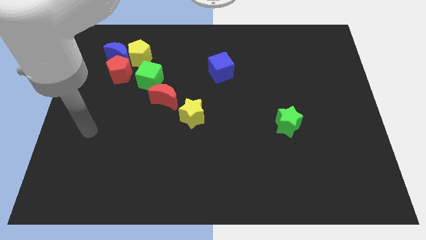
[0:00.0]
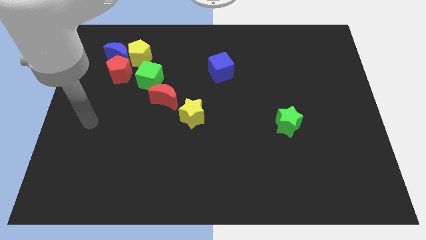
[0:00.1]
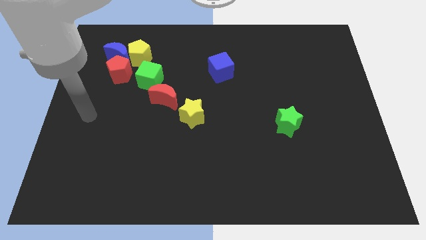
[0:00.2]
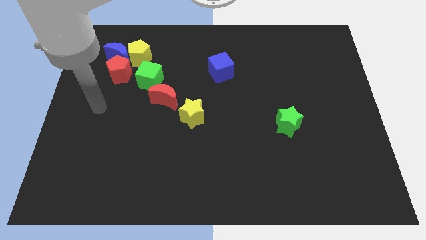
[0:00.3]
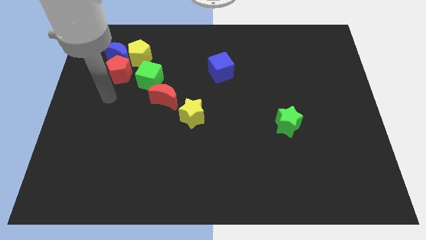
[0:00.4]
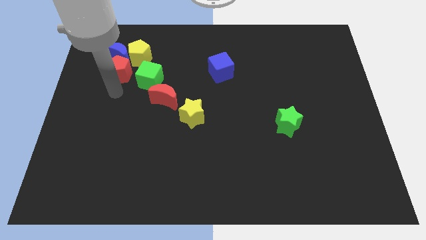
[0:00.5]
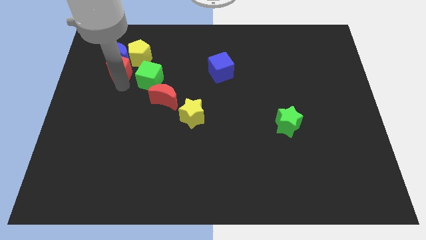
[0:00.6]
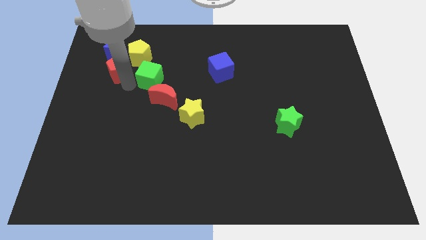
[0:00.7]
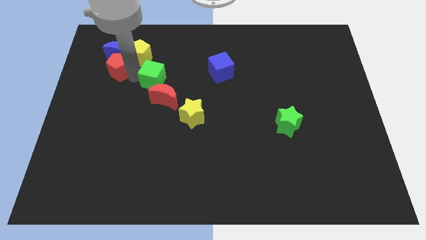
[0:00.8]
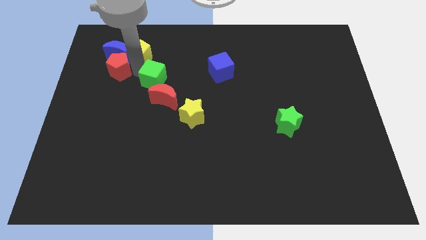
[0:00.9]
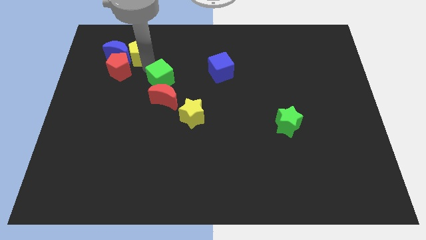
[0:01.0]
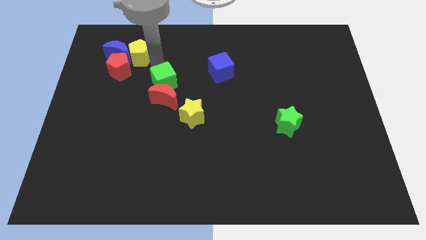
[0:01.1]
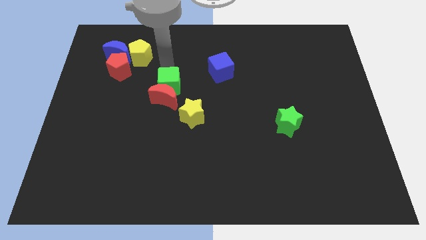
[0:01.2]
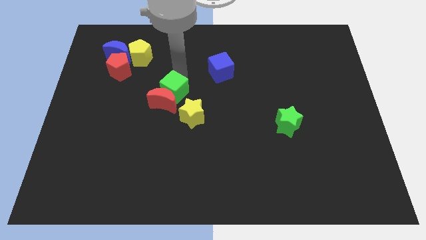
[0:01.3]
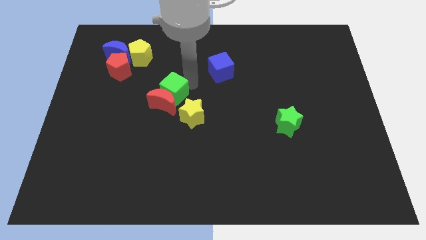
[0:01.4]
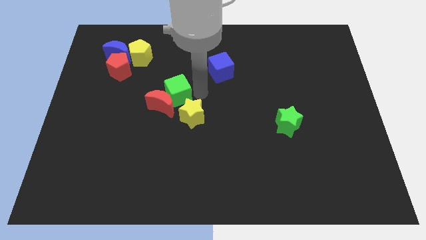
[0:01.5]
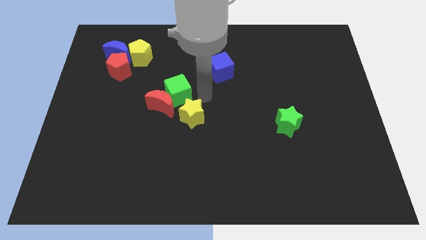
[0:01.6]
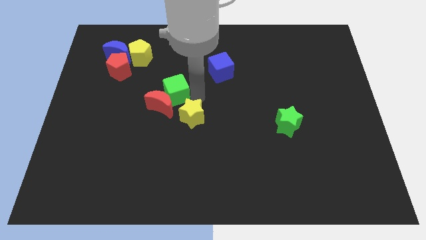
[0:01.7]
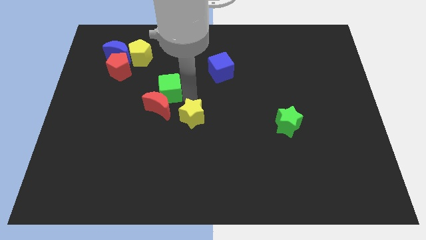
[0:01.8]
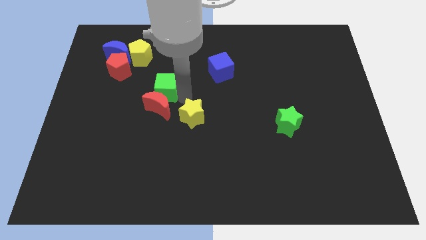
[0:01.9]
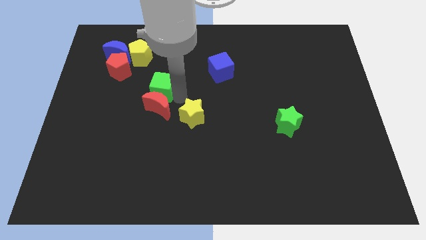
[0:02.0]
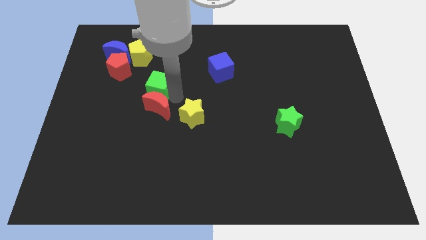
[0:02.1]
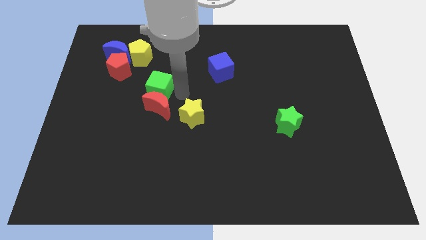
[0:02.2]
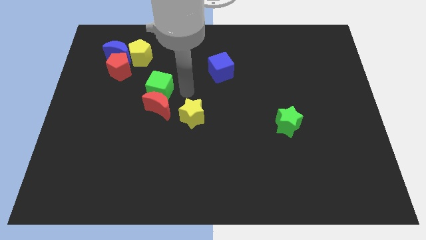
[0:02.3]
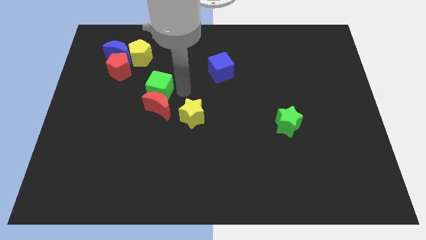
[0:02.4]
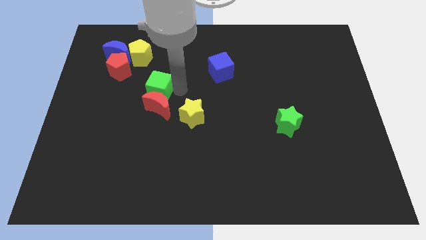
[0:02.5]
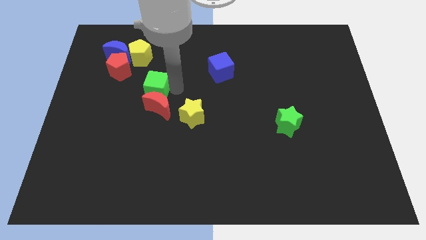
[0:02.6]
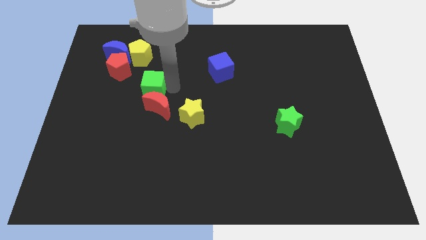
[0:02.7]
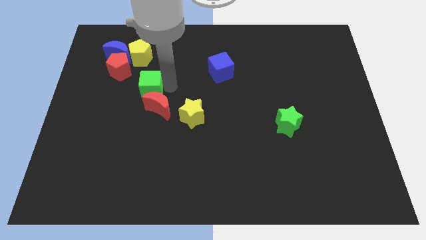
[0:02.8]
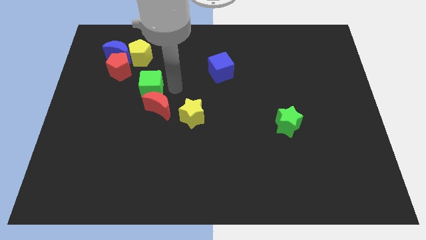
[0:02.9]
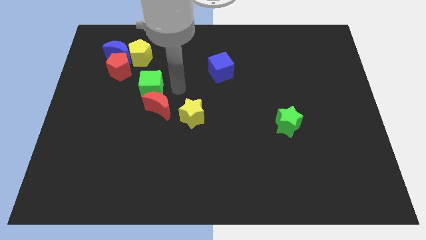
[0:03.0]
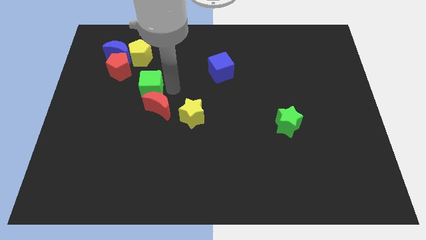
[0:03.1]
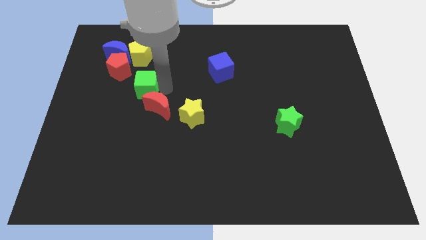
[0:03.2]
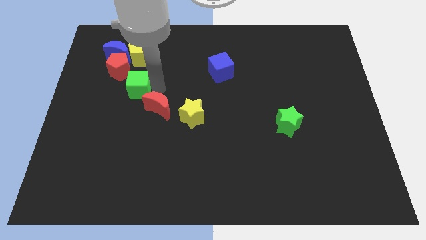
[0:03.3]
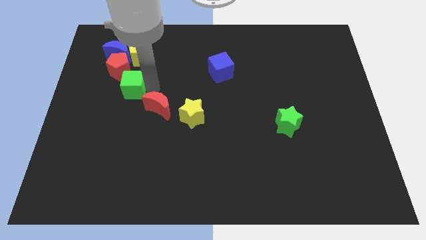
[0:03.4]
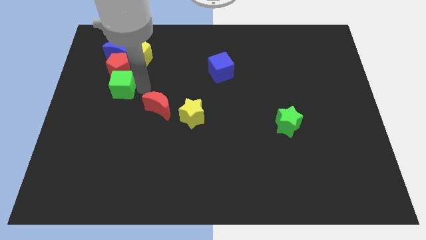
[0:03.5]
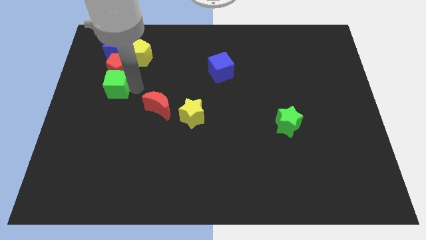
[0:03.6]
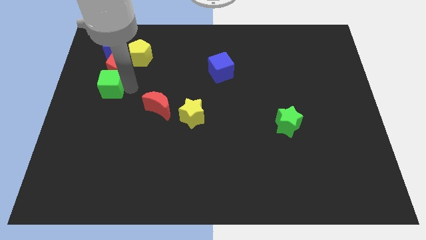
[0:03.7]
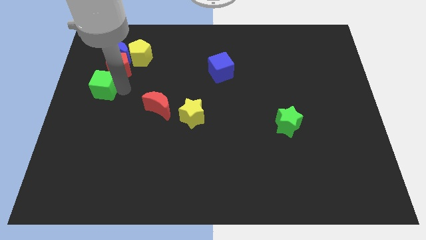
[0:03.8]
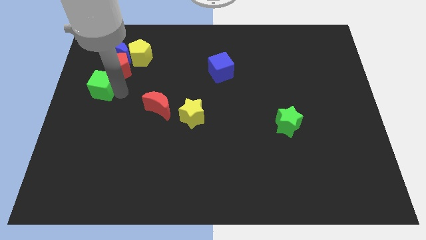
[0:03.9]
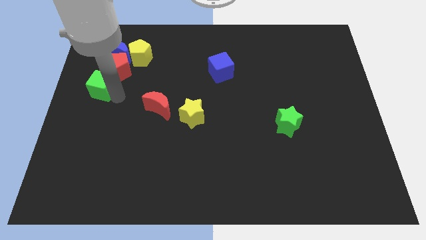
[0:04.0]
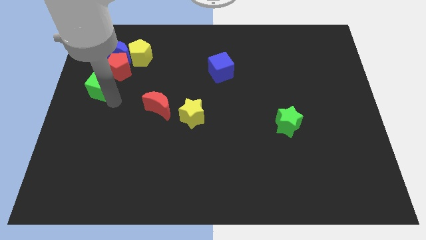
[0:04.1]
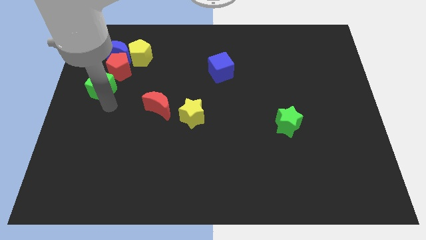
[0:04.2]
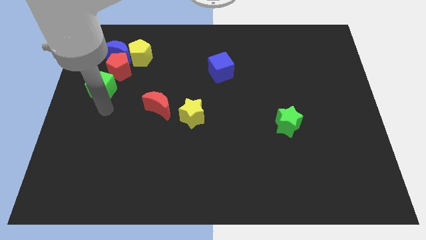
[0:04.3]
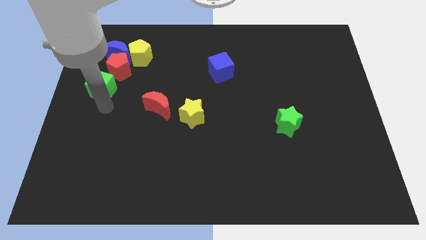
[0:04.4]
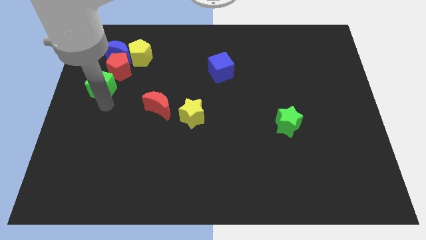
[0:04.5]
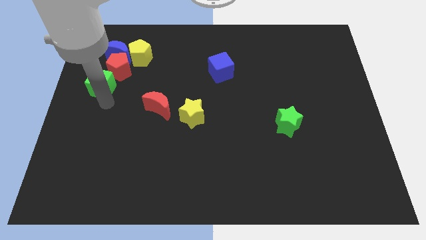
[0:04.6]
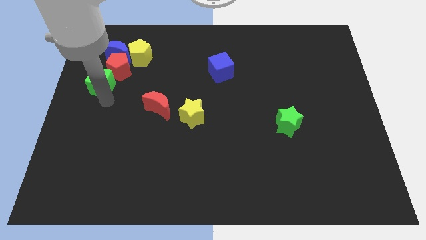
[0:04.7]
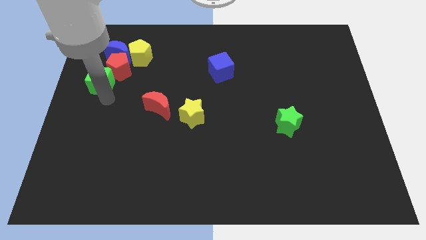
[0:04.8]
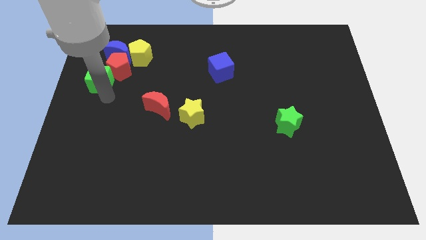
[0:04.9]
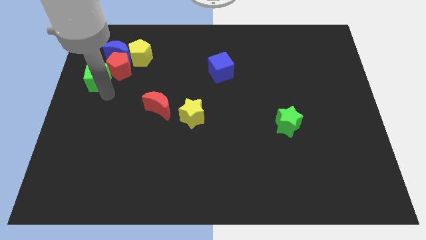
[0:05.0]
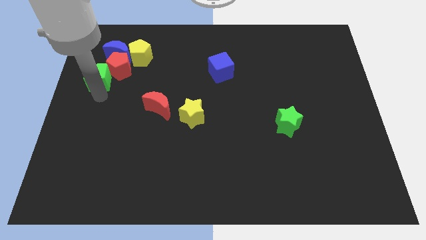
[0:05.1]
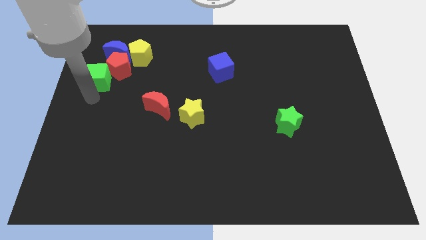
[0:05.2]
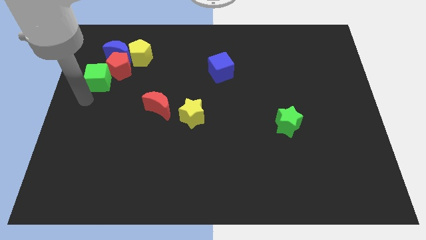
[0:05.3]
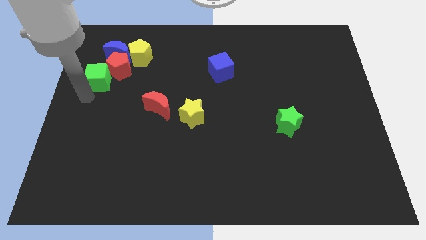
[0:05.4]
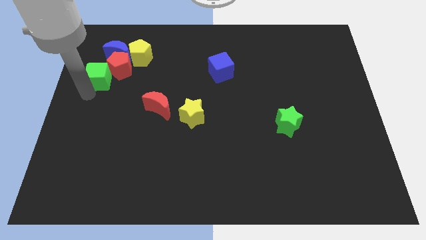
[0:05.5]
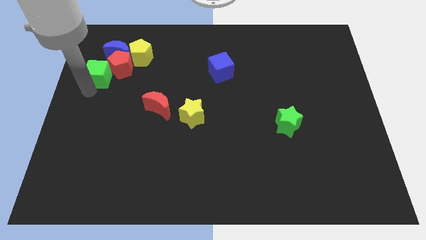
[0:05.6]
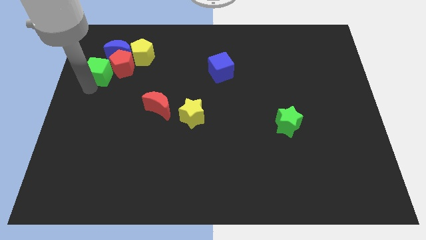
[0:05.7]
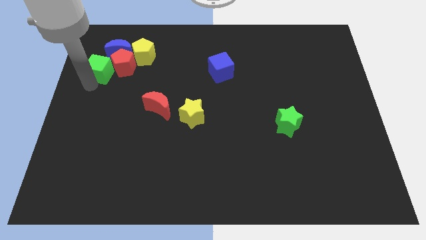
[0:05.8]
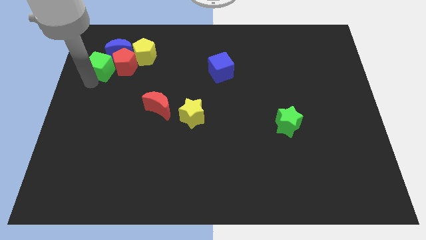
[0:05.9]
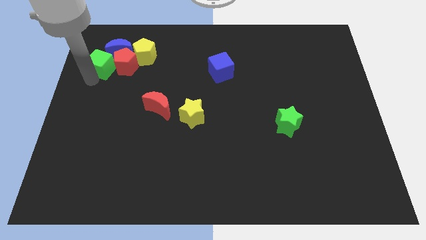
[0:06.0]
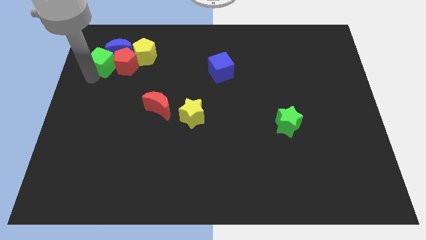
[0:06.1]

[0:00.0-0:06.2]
put the green cube close to the blue moon

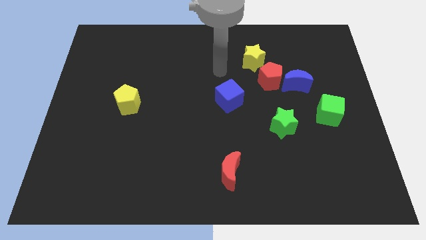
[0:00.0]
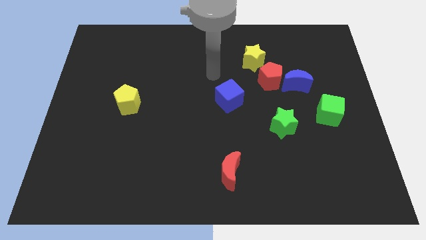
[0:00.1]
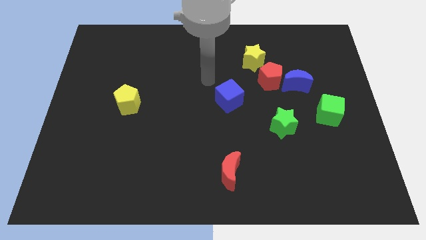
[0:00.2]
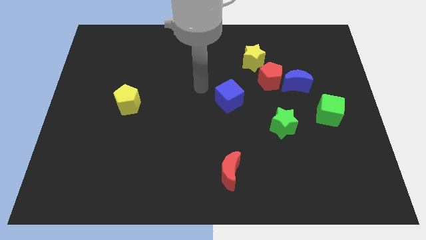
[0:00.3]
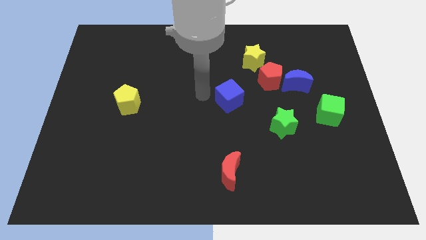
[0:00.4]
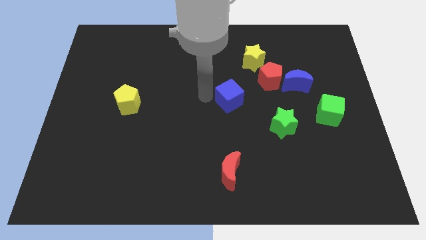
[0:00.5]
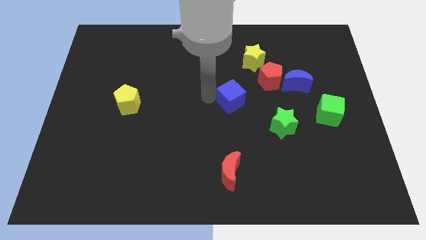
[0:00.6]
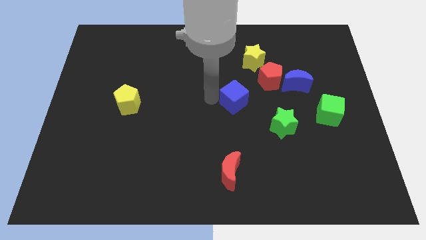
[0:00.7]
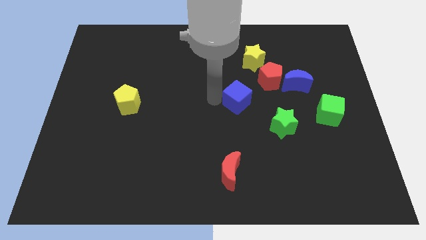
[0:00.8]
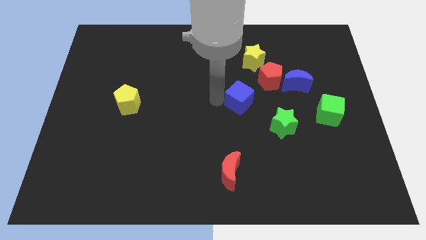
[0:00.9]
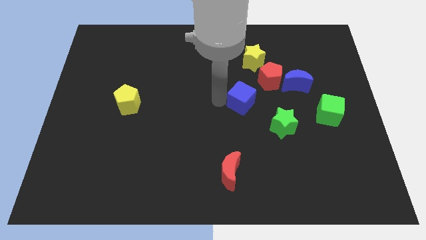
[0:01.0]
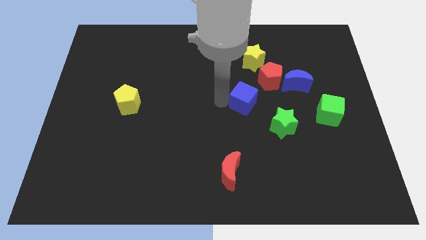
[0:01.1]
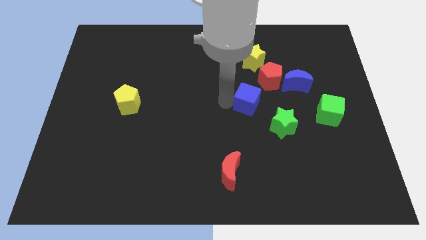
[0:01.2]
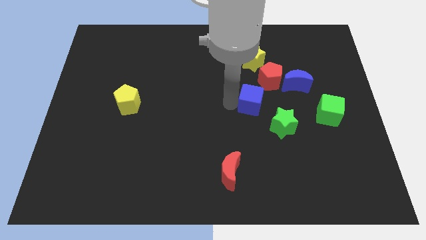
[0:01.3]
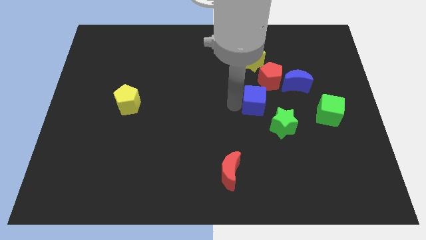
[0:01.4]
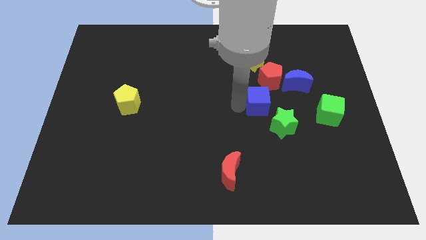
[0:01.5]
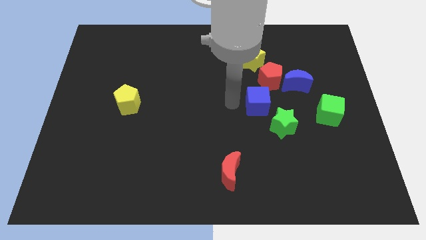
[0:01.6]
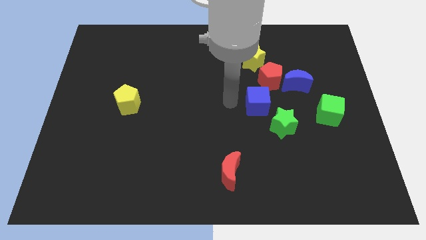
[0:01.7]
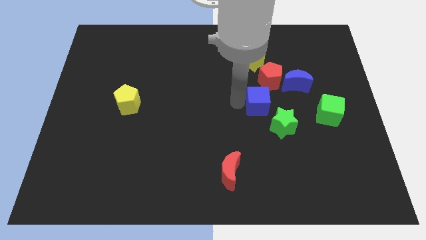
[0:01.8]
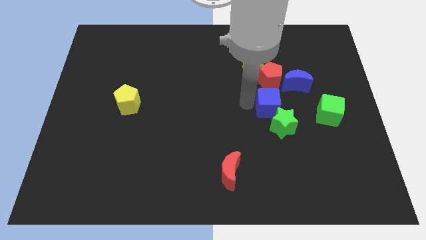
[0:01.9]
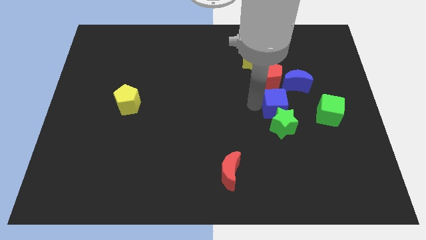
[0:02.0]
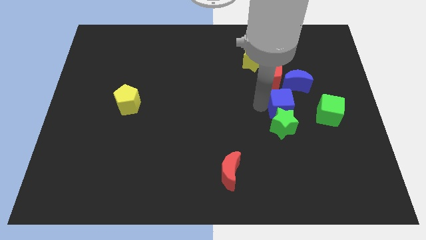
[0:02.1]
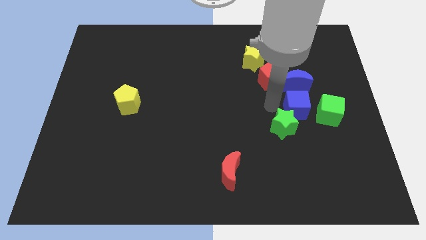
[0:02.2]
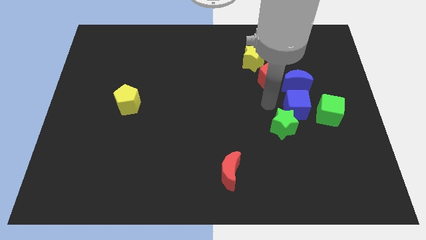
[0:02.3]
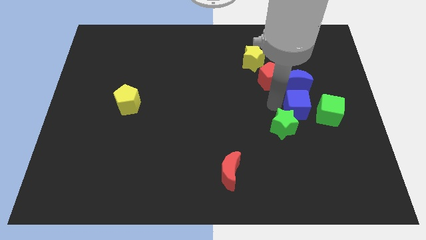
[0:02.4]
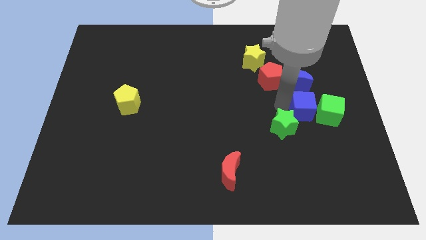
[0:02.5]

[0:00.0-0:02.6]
put the blue cube next to the green cube
